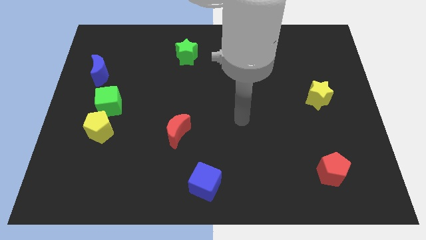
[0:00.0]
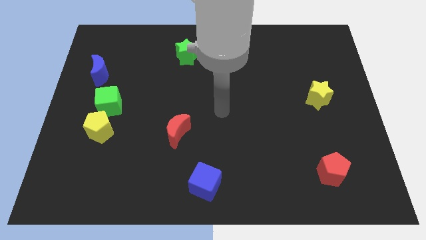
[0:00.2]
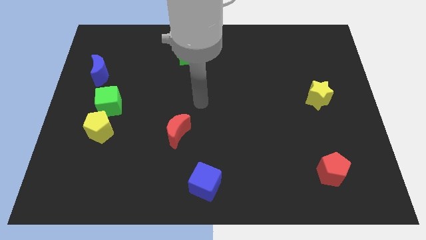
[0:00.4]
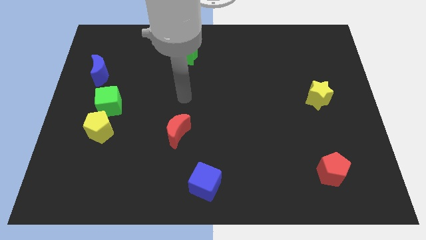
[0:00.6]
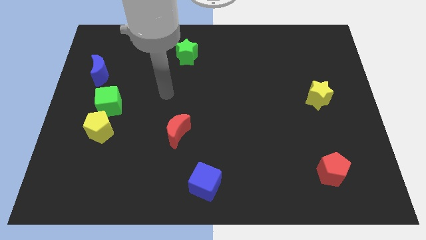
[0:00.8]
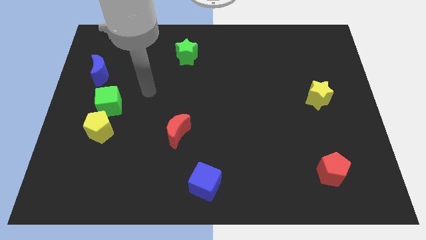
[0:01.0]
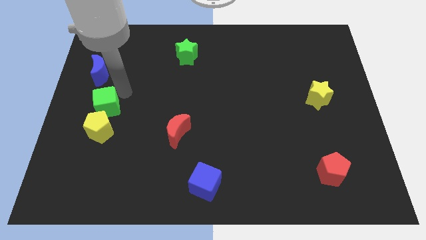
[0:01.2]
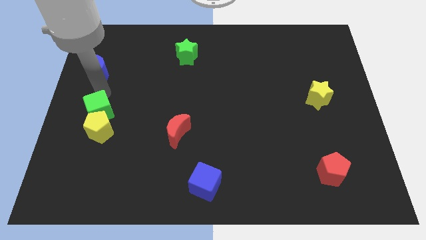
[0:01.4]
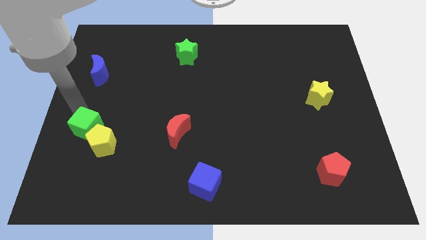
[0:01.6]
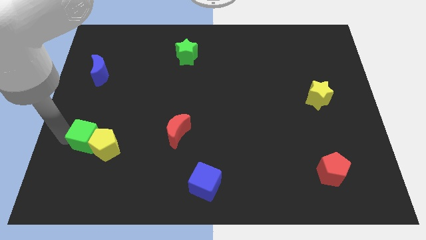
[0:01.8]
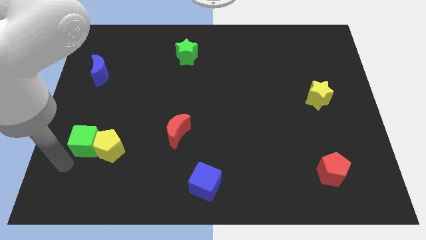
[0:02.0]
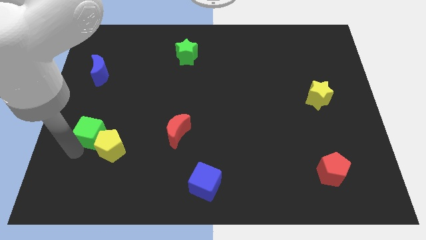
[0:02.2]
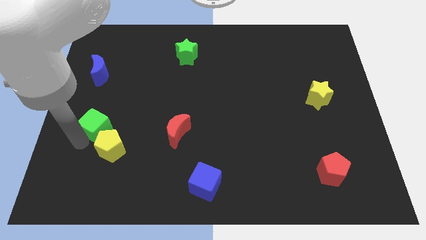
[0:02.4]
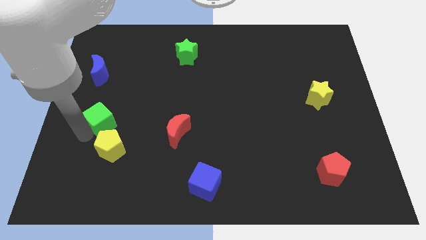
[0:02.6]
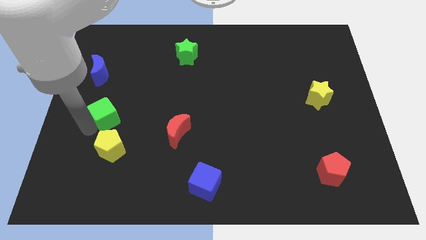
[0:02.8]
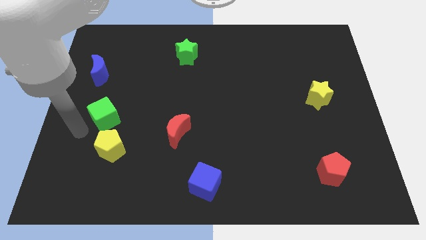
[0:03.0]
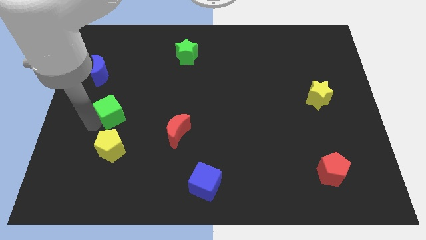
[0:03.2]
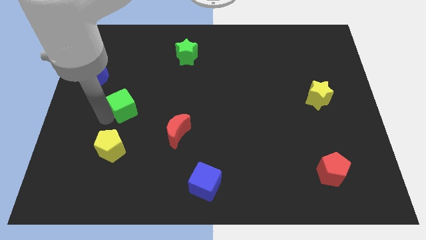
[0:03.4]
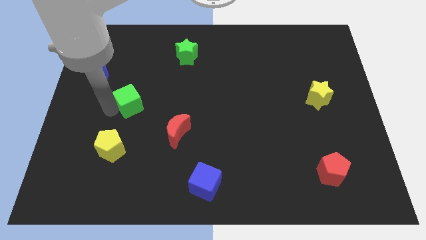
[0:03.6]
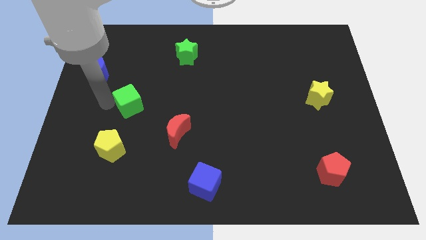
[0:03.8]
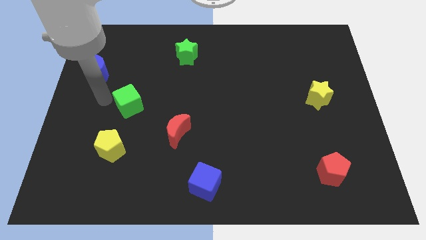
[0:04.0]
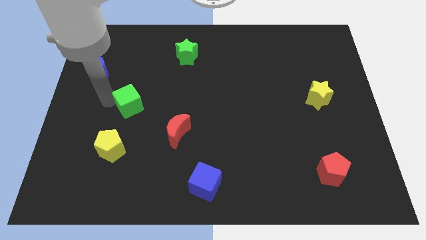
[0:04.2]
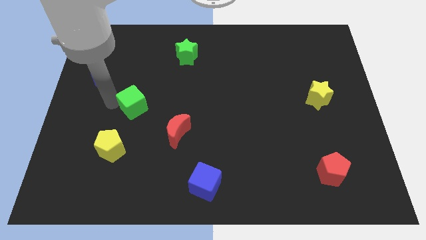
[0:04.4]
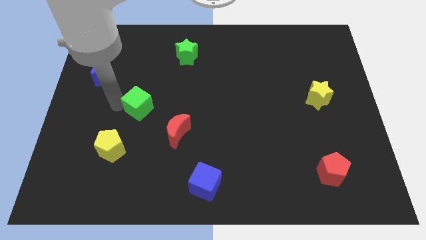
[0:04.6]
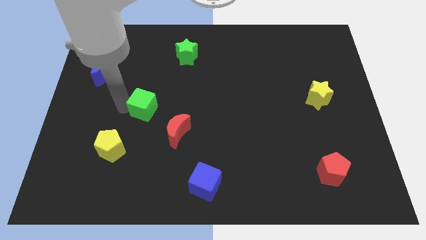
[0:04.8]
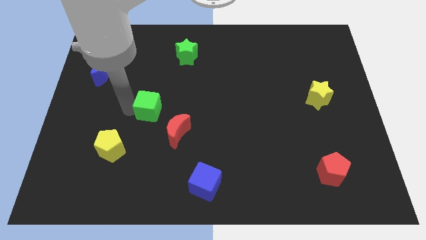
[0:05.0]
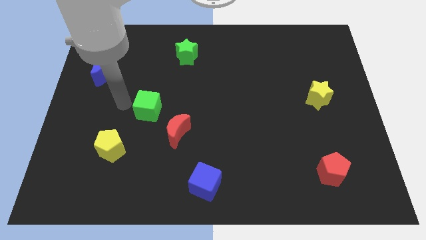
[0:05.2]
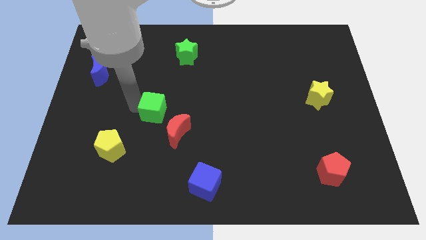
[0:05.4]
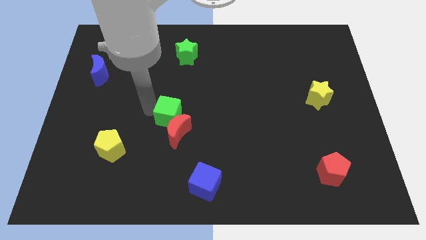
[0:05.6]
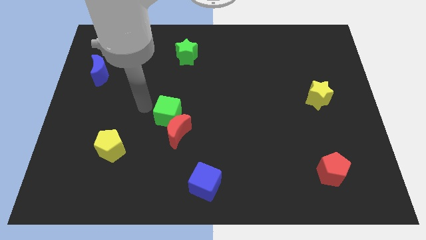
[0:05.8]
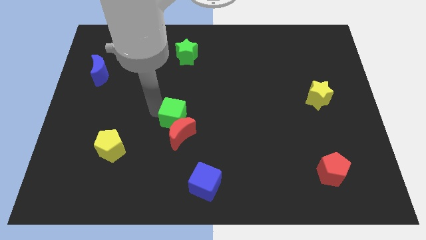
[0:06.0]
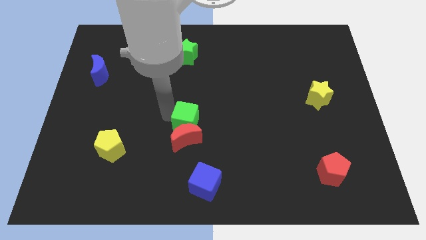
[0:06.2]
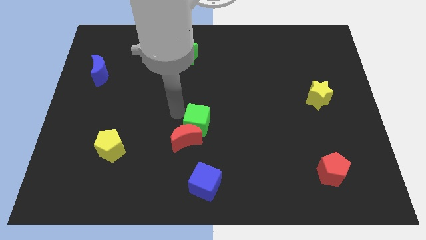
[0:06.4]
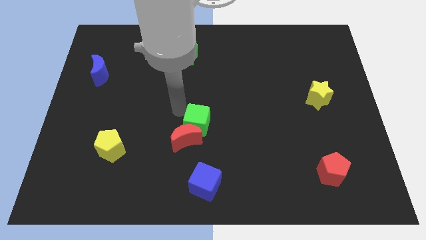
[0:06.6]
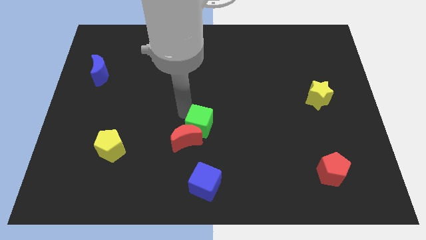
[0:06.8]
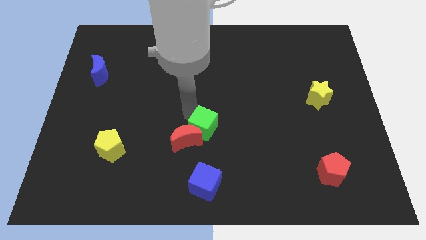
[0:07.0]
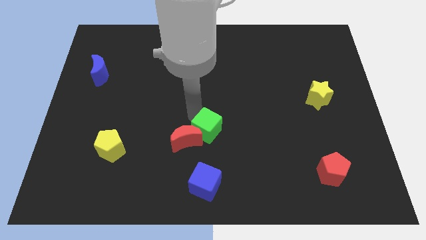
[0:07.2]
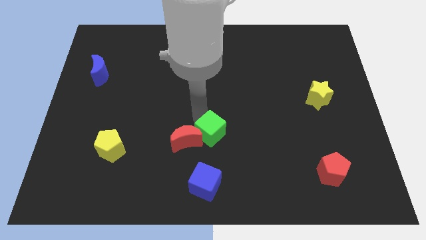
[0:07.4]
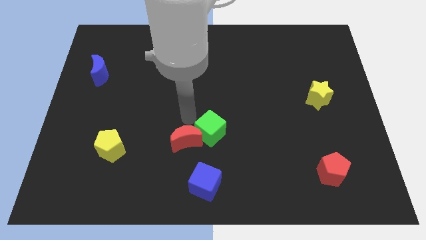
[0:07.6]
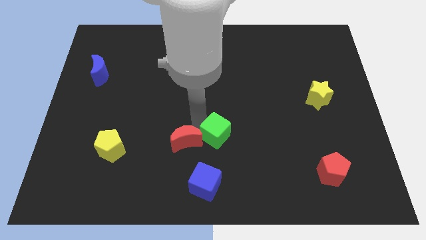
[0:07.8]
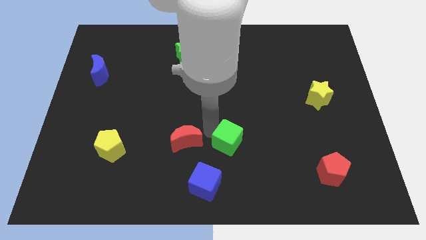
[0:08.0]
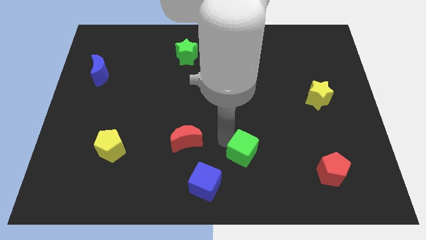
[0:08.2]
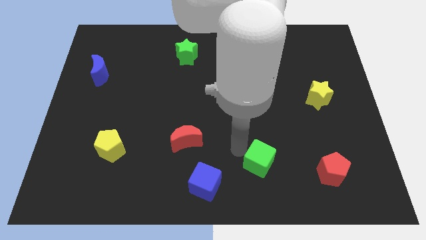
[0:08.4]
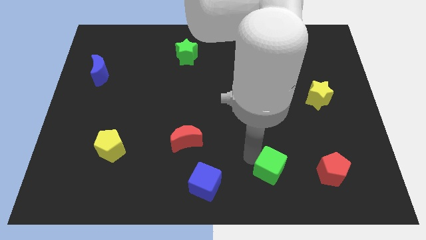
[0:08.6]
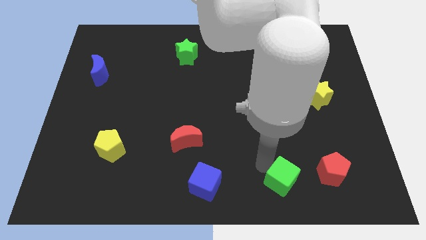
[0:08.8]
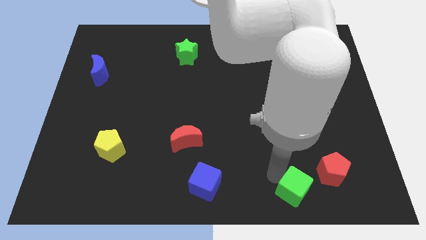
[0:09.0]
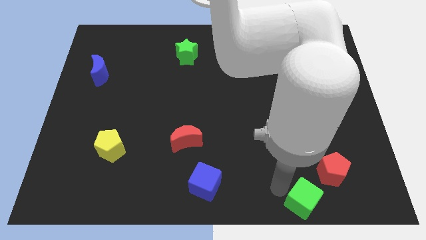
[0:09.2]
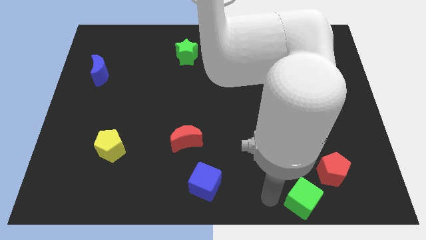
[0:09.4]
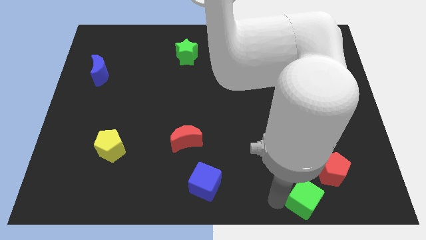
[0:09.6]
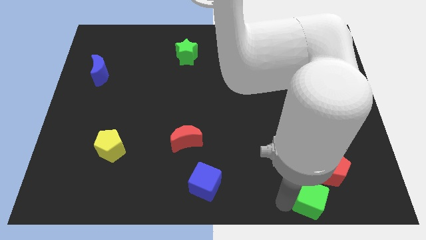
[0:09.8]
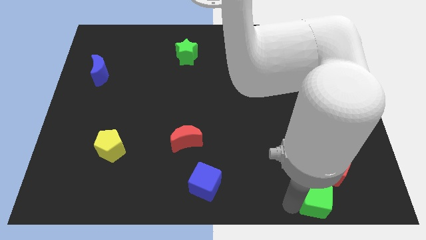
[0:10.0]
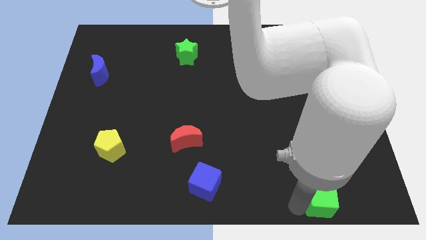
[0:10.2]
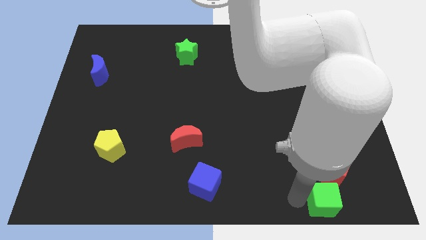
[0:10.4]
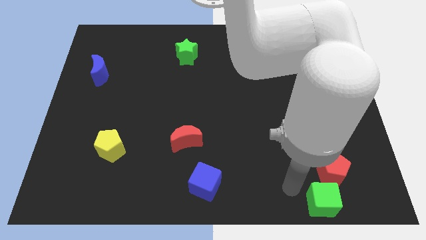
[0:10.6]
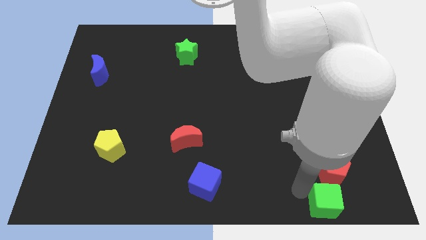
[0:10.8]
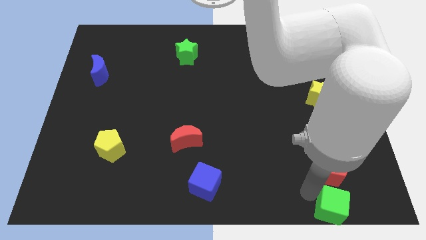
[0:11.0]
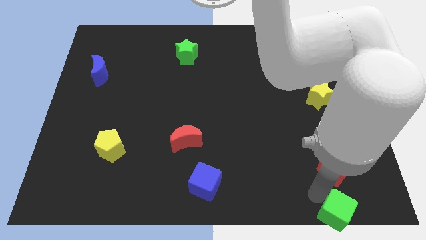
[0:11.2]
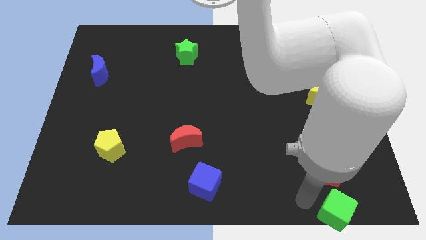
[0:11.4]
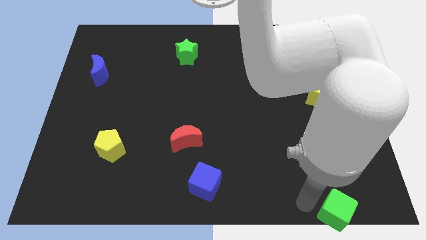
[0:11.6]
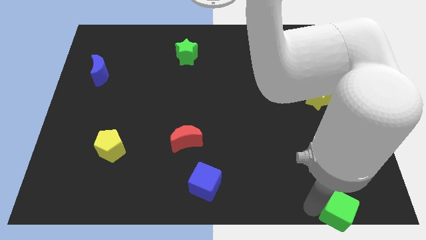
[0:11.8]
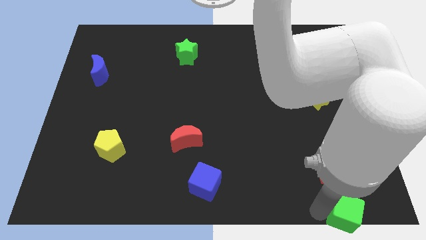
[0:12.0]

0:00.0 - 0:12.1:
push the green cube to the bottom right corner

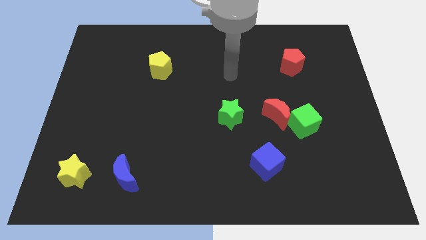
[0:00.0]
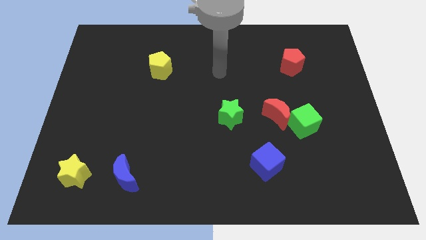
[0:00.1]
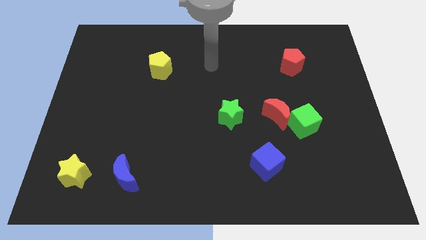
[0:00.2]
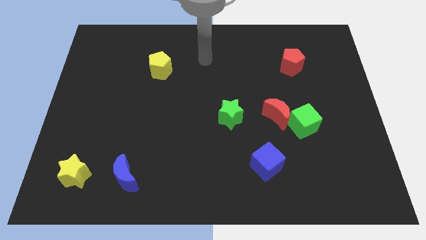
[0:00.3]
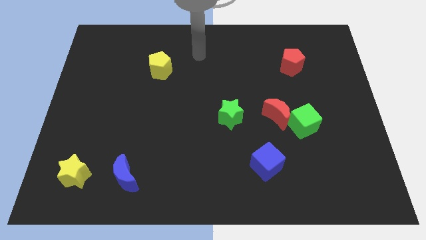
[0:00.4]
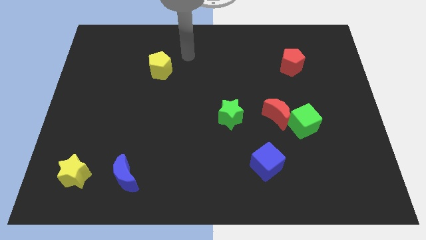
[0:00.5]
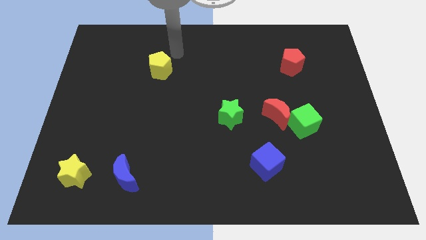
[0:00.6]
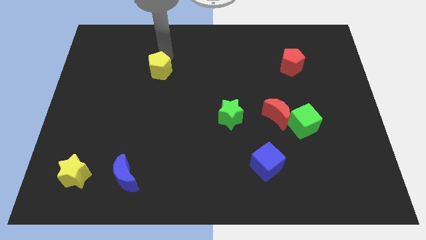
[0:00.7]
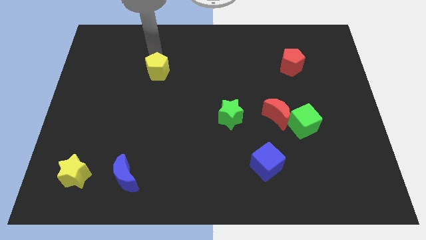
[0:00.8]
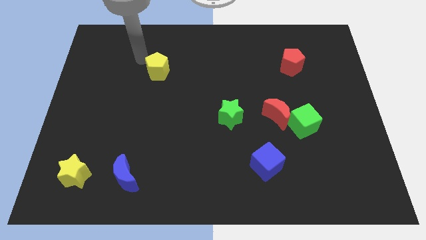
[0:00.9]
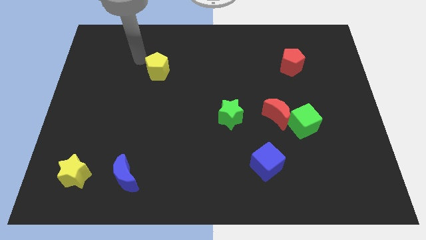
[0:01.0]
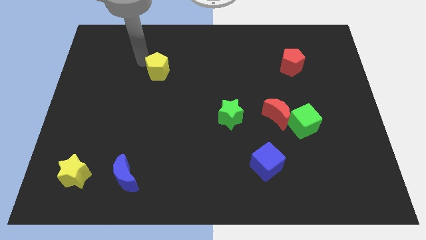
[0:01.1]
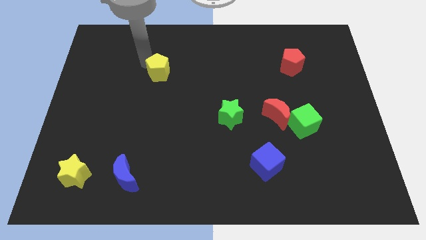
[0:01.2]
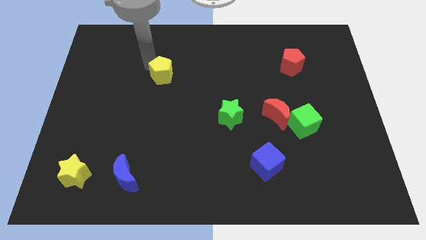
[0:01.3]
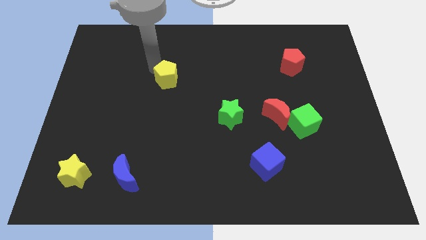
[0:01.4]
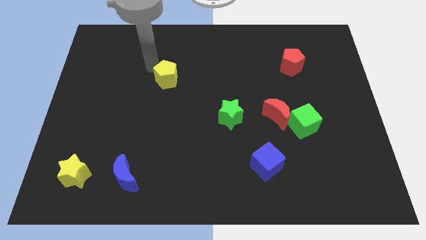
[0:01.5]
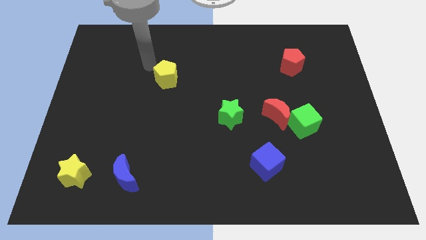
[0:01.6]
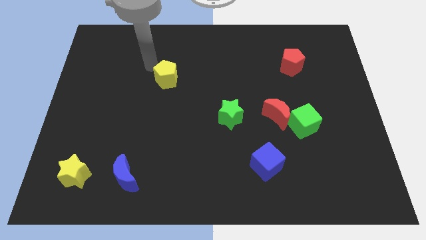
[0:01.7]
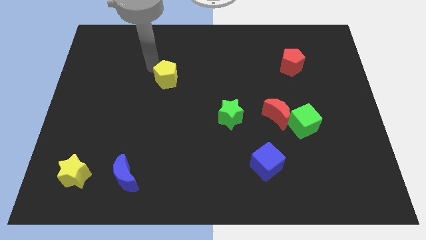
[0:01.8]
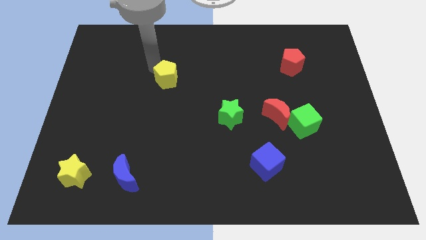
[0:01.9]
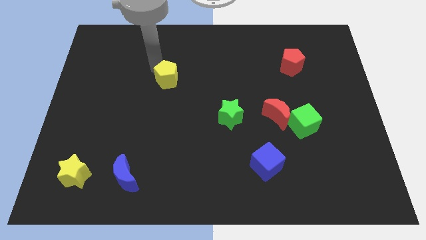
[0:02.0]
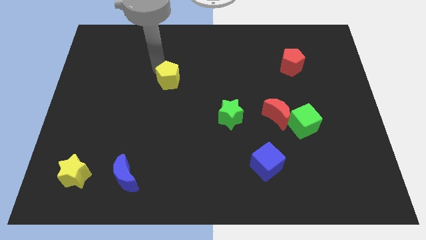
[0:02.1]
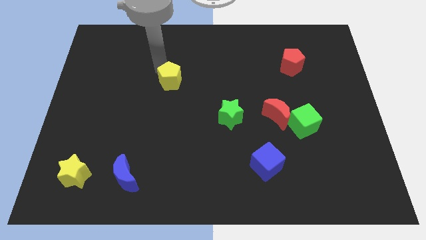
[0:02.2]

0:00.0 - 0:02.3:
push the yellow pentagon to the center of the board
